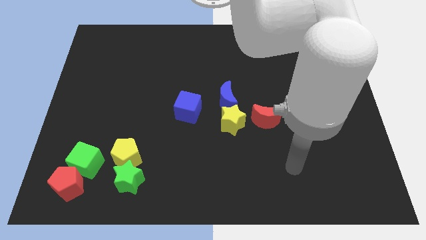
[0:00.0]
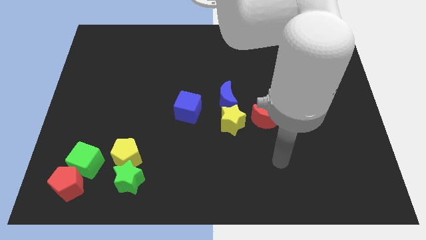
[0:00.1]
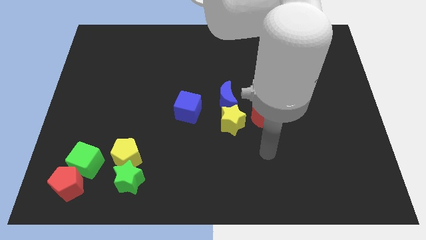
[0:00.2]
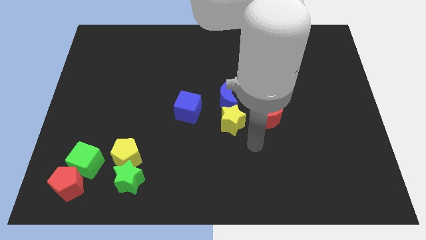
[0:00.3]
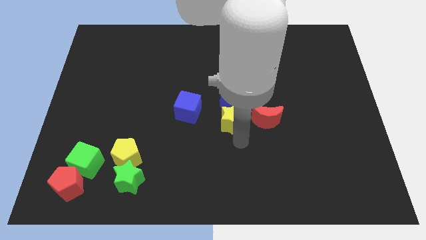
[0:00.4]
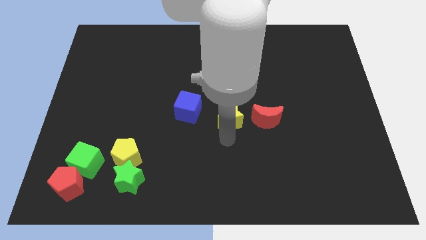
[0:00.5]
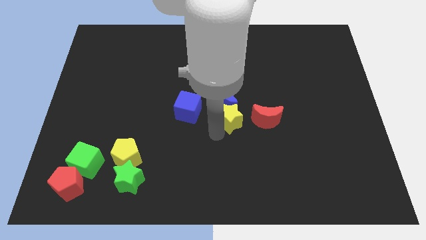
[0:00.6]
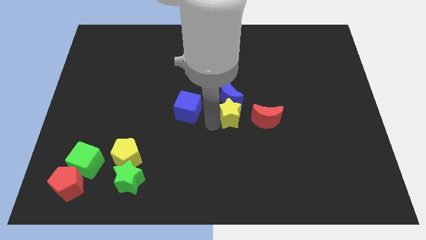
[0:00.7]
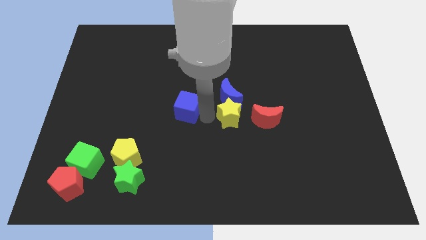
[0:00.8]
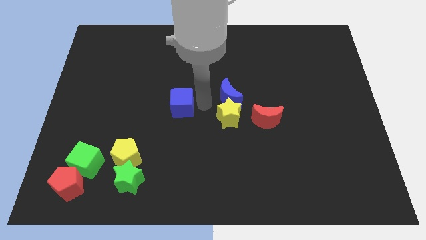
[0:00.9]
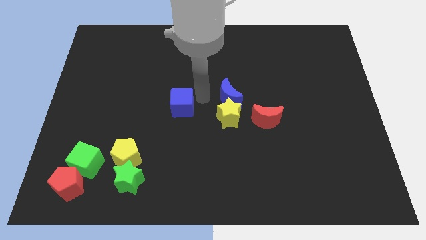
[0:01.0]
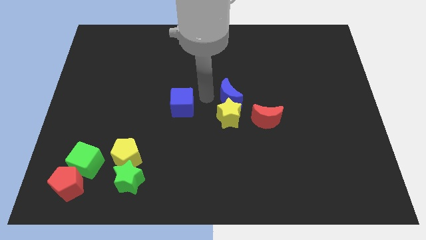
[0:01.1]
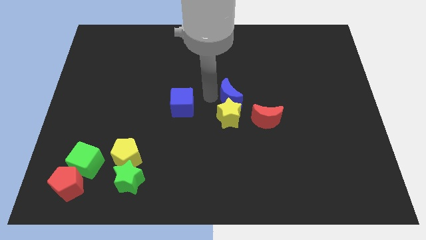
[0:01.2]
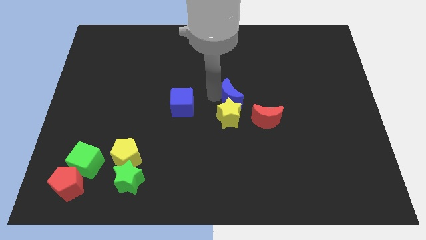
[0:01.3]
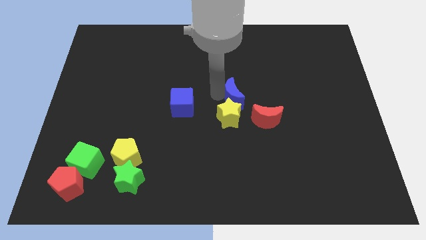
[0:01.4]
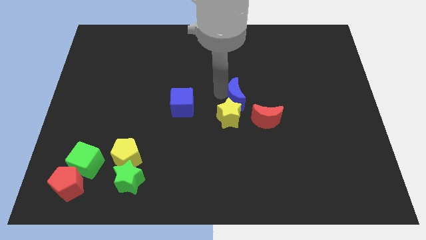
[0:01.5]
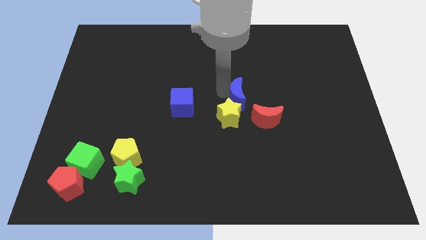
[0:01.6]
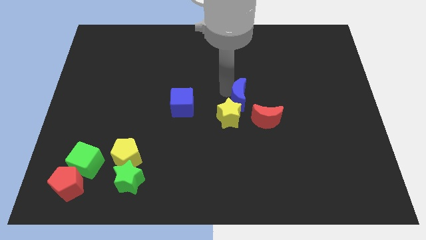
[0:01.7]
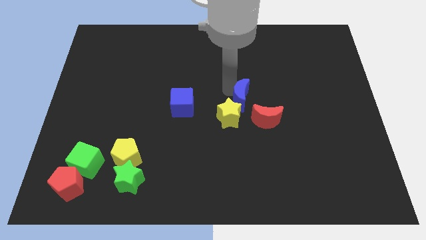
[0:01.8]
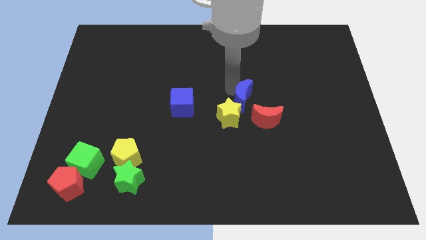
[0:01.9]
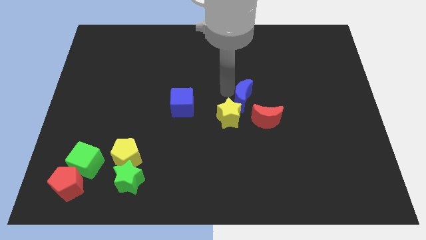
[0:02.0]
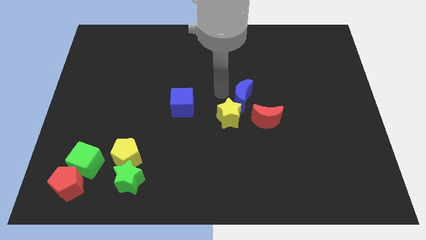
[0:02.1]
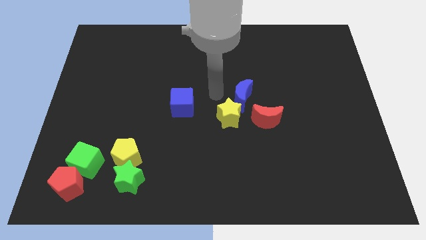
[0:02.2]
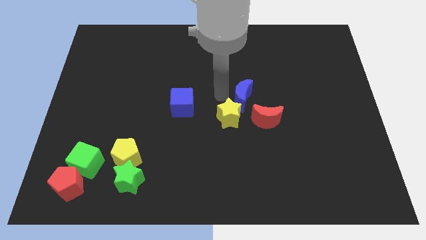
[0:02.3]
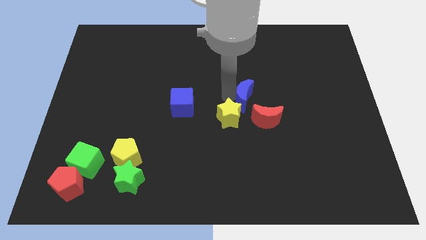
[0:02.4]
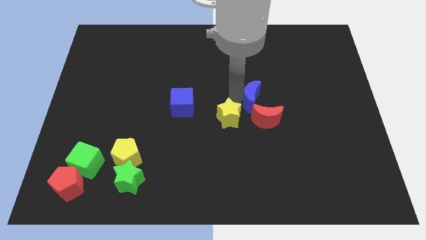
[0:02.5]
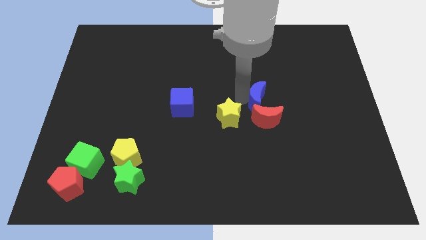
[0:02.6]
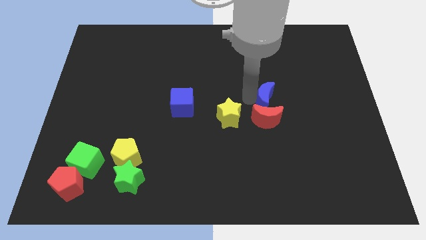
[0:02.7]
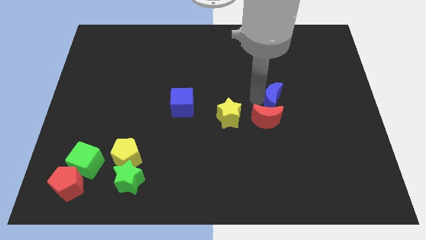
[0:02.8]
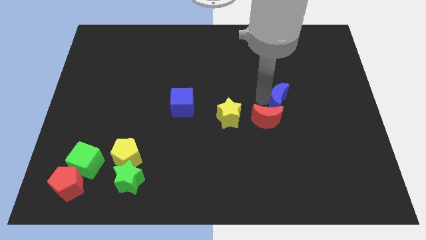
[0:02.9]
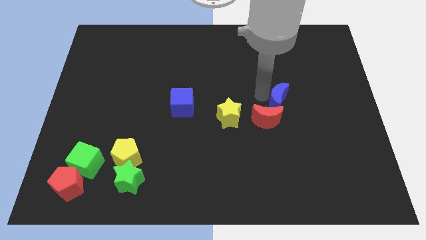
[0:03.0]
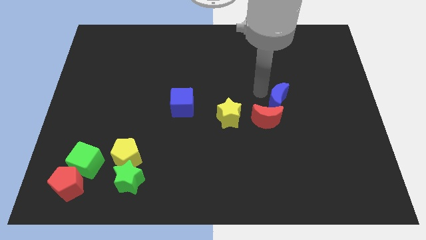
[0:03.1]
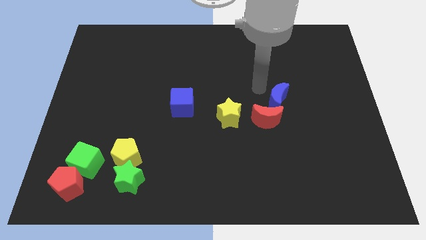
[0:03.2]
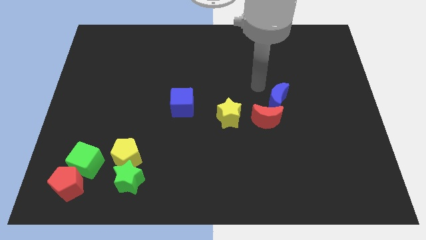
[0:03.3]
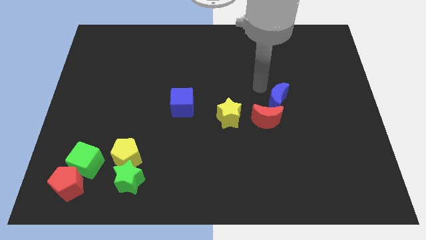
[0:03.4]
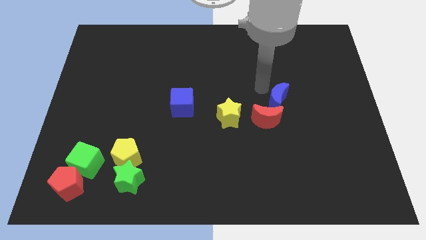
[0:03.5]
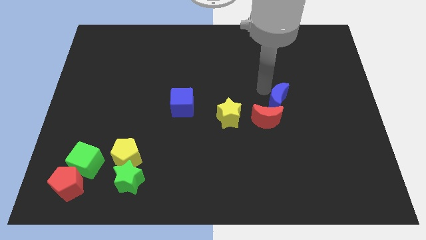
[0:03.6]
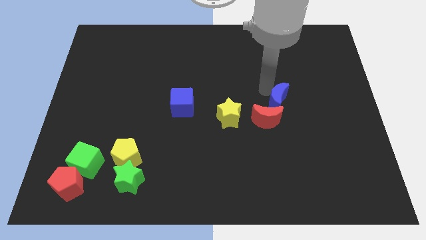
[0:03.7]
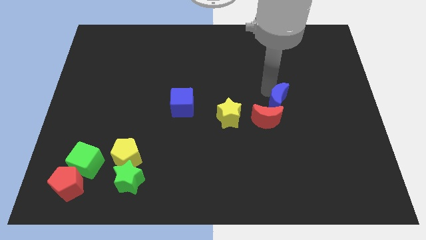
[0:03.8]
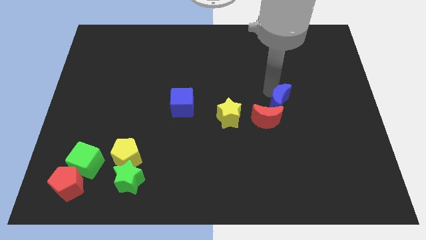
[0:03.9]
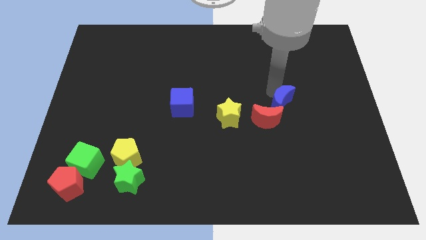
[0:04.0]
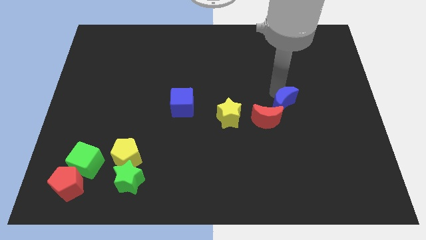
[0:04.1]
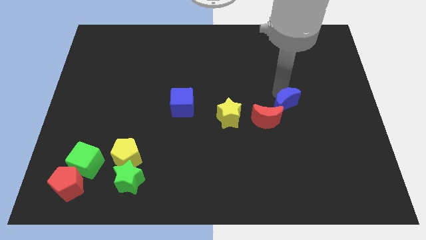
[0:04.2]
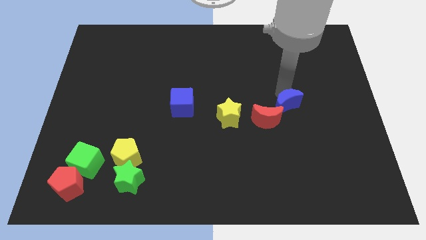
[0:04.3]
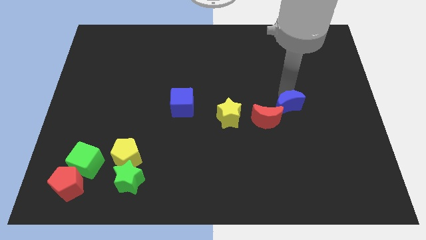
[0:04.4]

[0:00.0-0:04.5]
slide the blue moon diagonally down and right a bit

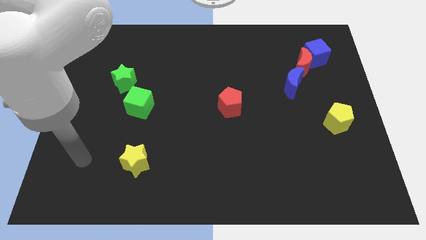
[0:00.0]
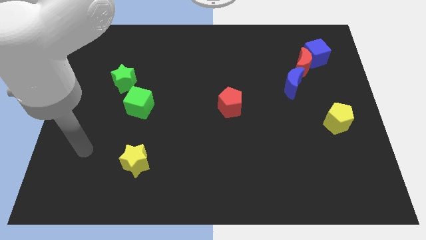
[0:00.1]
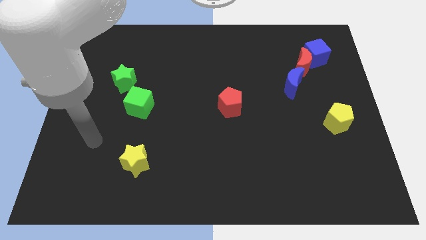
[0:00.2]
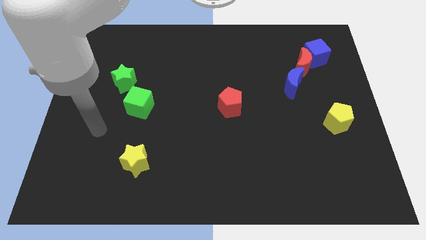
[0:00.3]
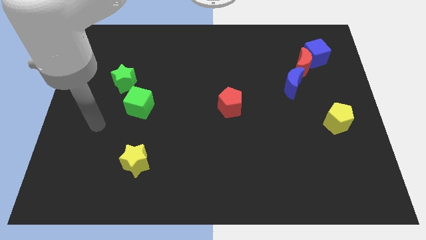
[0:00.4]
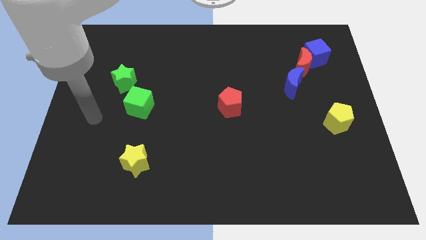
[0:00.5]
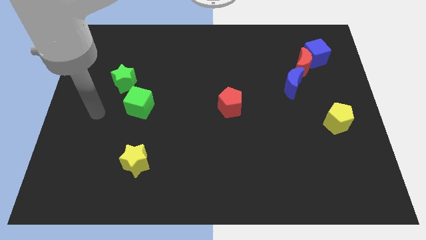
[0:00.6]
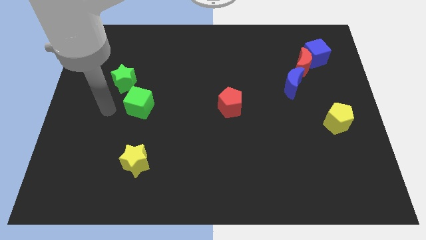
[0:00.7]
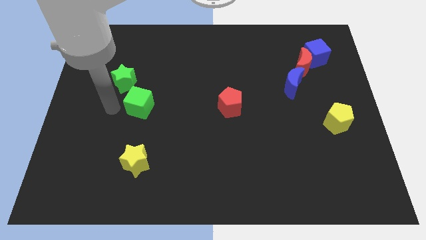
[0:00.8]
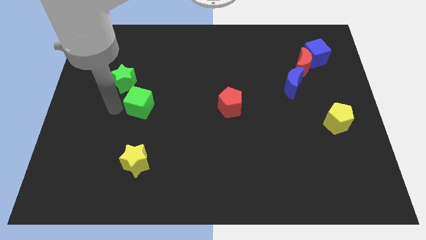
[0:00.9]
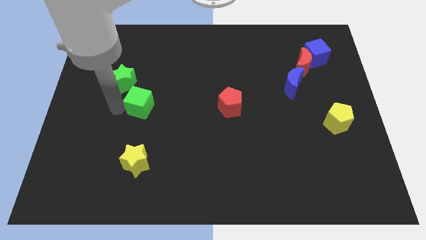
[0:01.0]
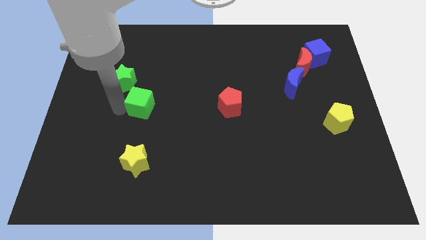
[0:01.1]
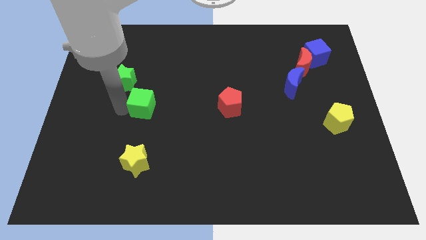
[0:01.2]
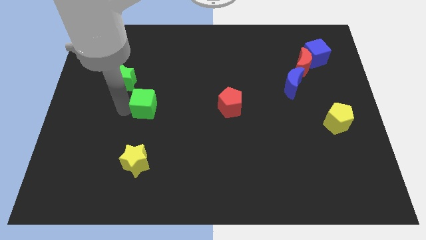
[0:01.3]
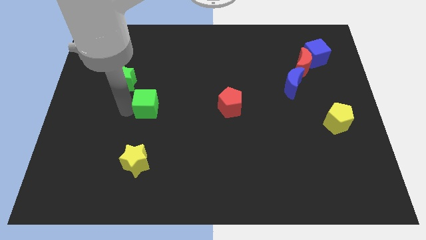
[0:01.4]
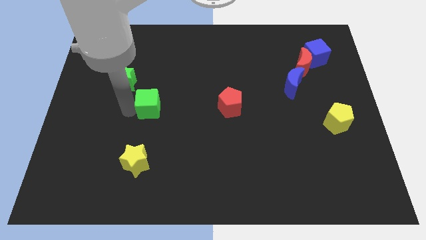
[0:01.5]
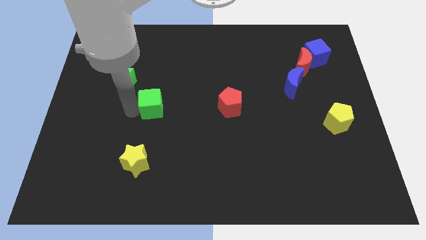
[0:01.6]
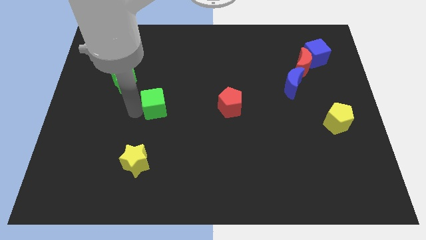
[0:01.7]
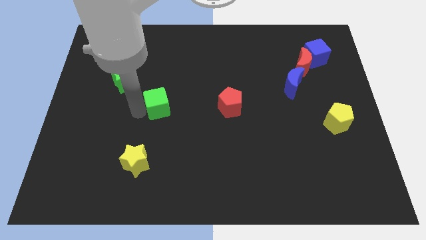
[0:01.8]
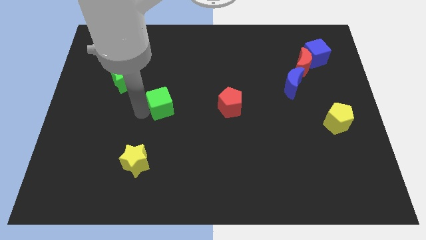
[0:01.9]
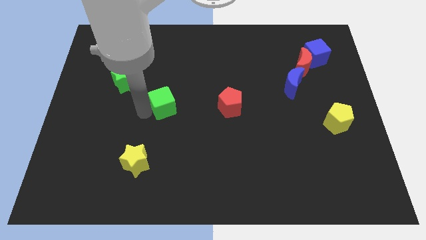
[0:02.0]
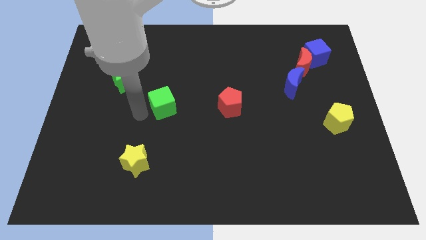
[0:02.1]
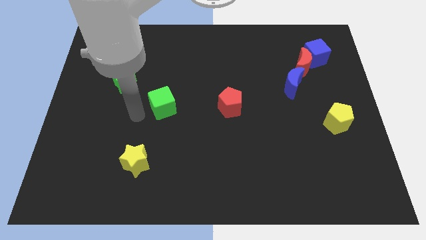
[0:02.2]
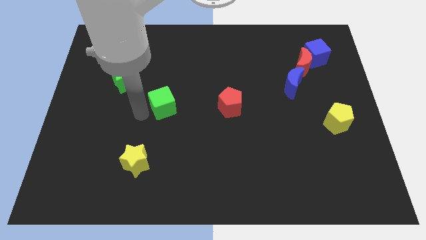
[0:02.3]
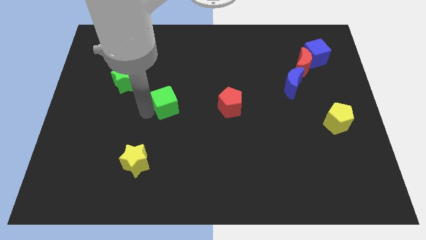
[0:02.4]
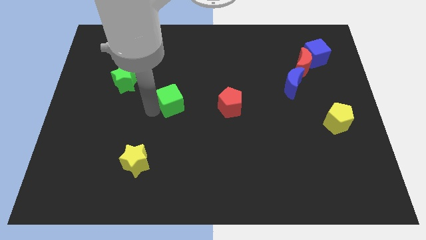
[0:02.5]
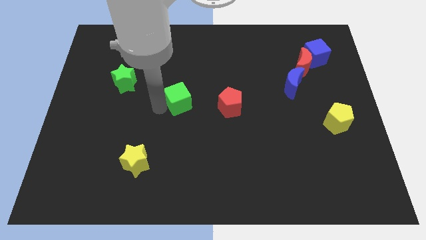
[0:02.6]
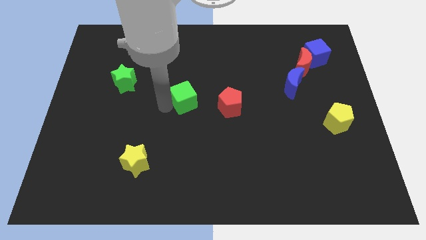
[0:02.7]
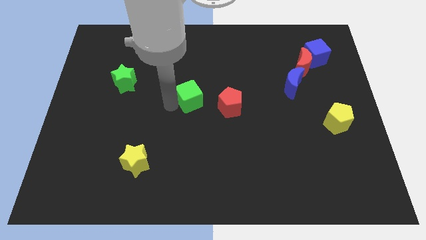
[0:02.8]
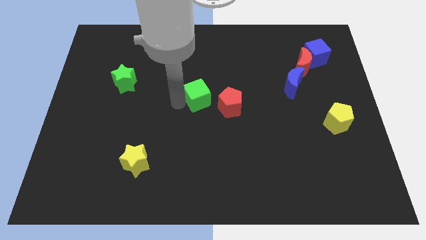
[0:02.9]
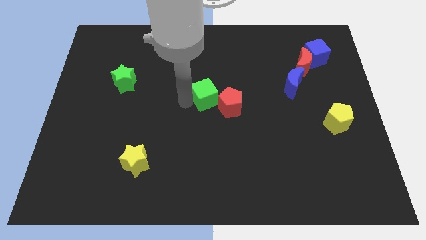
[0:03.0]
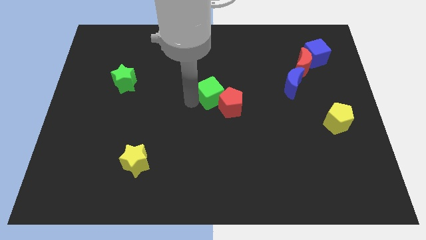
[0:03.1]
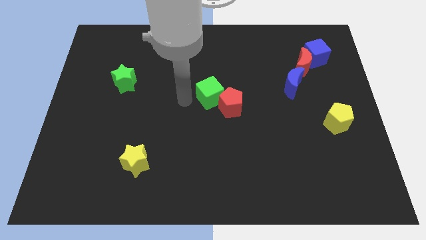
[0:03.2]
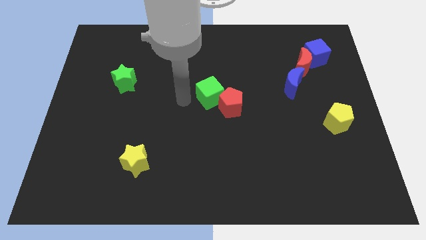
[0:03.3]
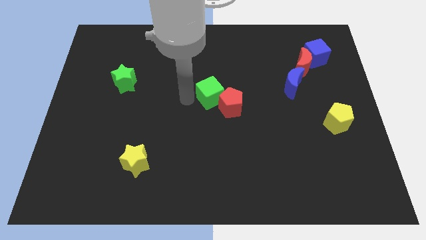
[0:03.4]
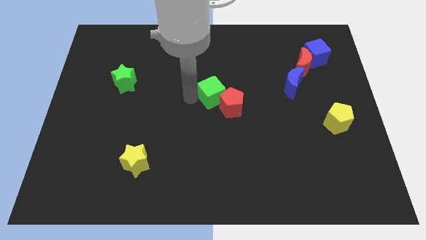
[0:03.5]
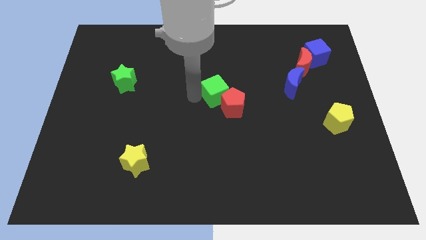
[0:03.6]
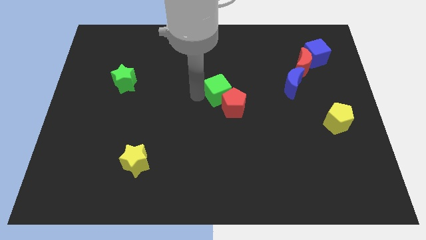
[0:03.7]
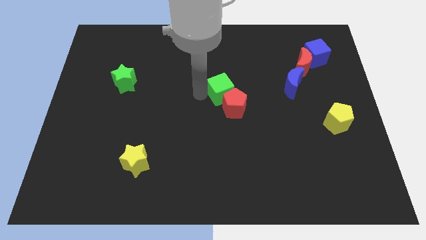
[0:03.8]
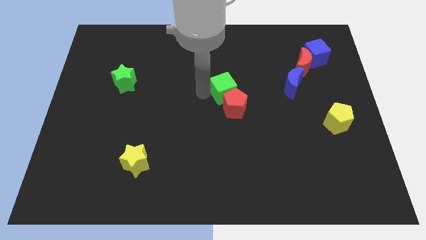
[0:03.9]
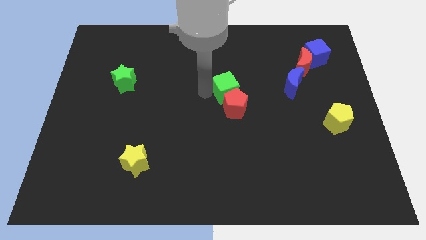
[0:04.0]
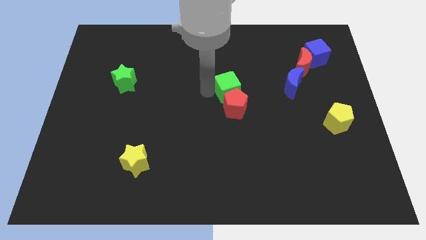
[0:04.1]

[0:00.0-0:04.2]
push the green cube right
